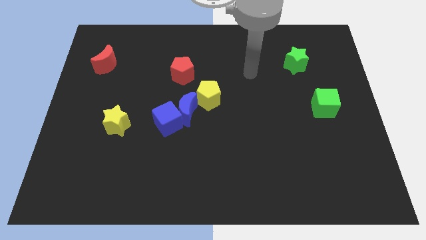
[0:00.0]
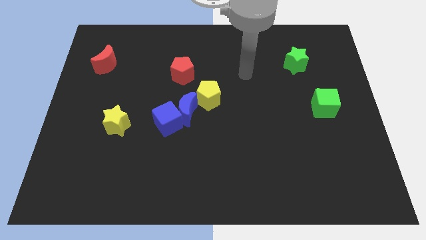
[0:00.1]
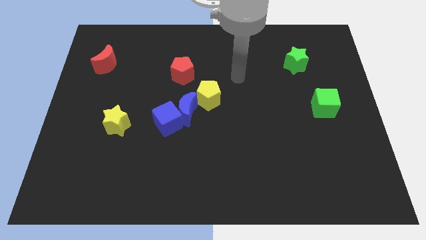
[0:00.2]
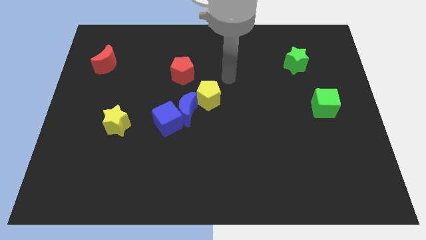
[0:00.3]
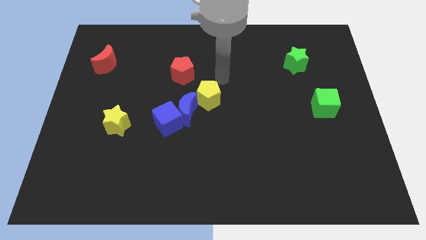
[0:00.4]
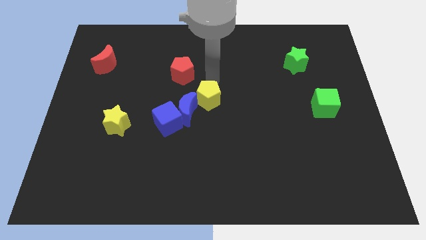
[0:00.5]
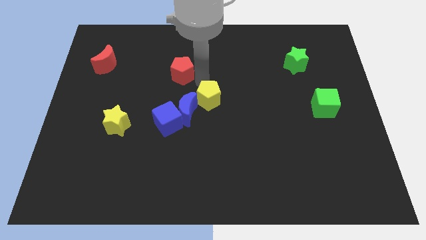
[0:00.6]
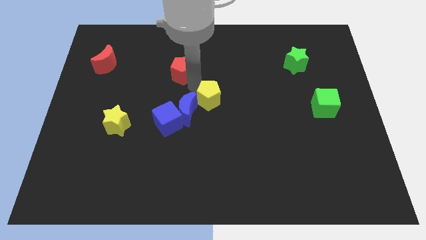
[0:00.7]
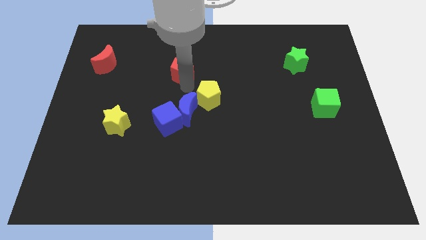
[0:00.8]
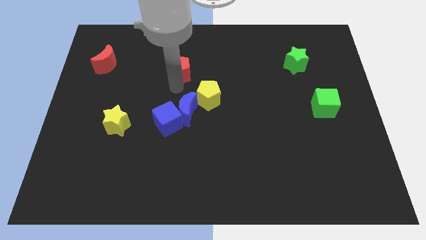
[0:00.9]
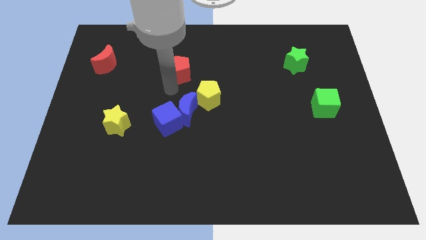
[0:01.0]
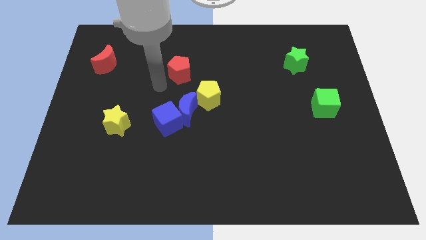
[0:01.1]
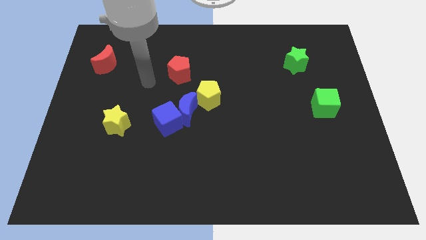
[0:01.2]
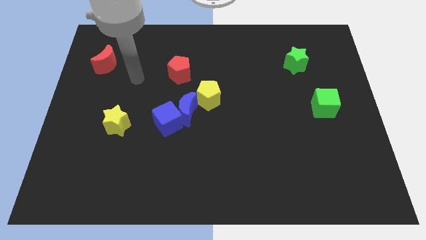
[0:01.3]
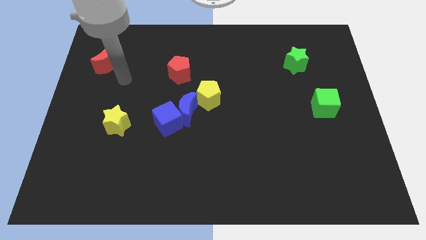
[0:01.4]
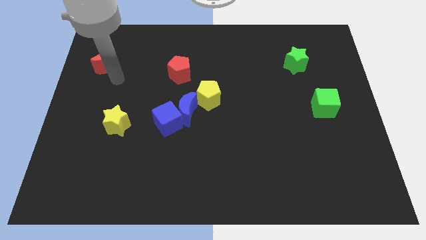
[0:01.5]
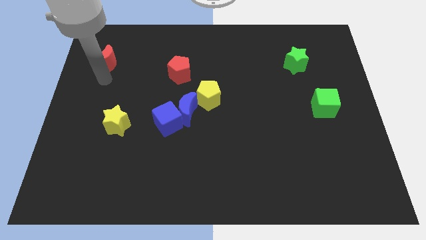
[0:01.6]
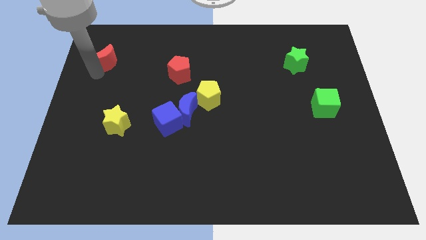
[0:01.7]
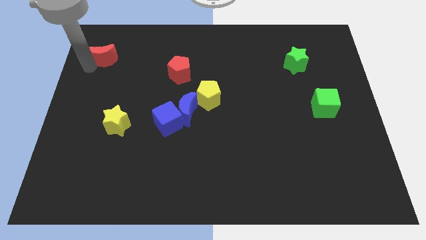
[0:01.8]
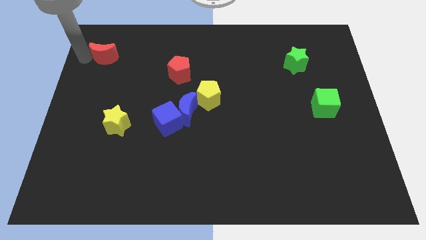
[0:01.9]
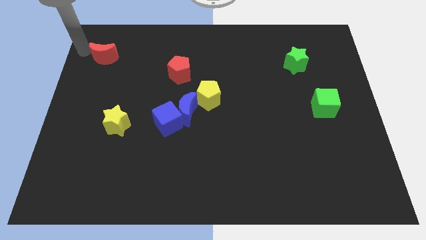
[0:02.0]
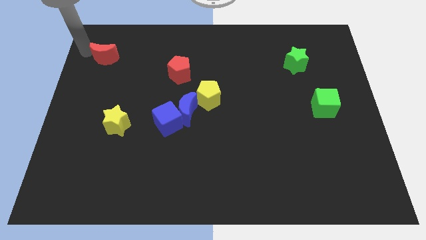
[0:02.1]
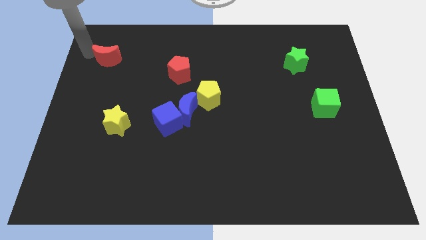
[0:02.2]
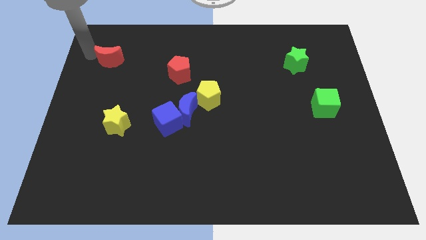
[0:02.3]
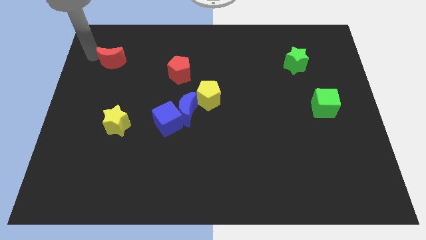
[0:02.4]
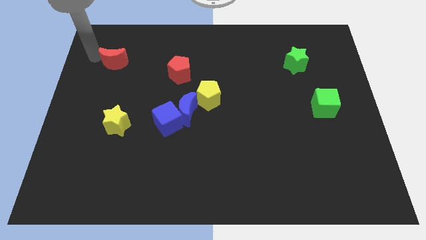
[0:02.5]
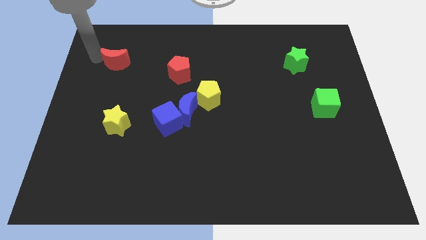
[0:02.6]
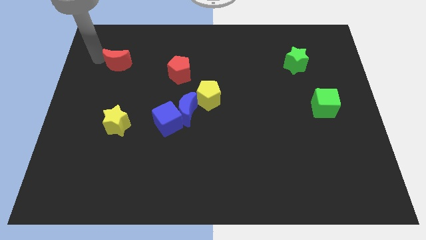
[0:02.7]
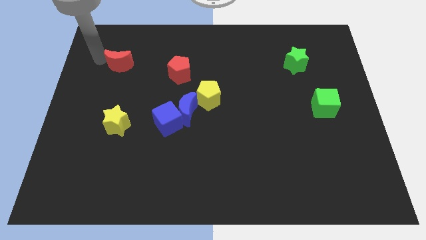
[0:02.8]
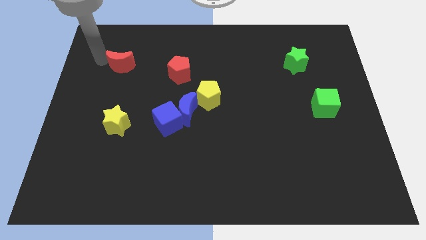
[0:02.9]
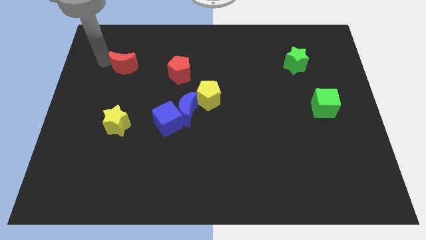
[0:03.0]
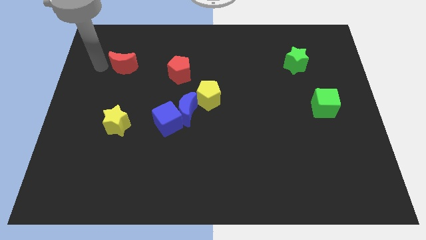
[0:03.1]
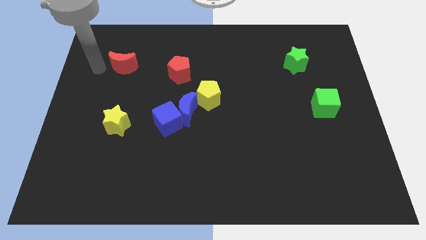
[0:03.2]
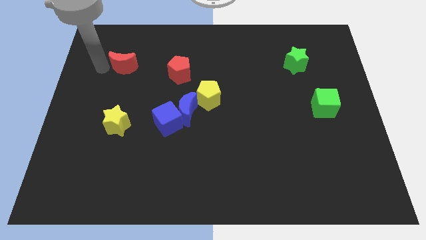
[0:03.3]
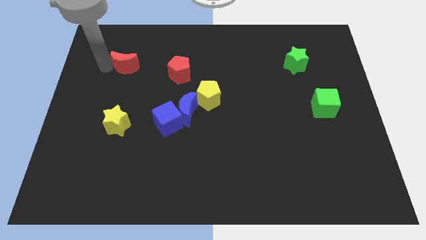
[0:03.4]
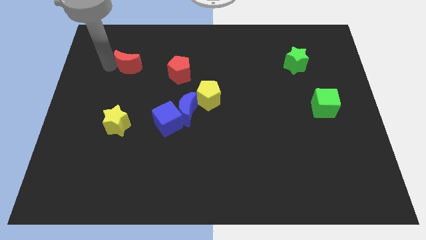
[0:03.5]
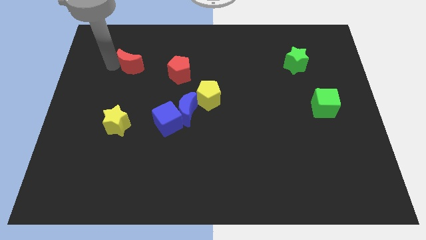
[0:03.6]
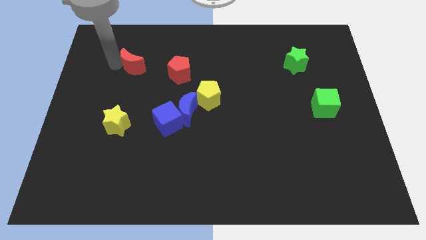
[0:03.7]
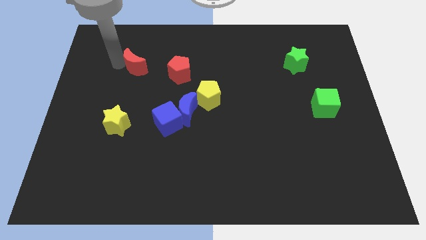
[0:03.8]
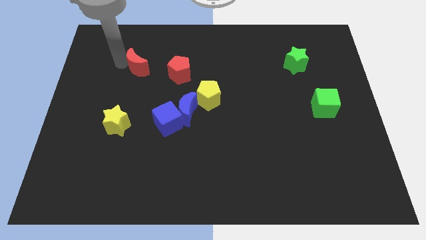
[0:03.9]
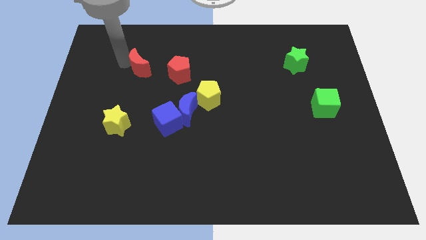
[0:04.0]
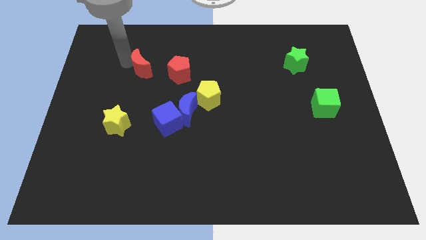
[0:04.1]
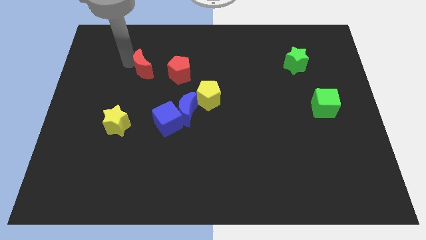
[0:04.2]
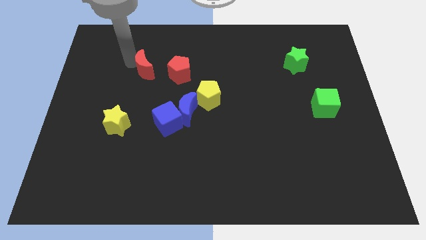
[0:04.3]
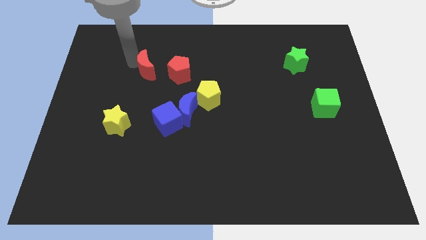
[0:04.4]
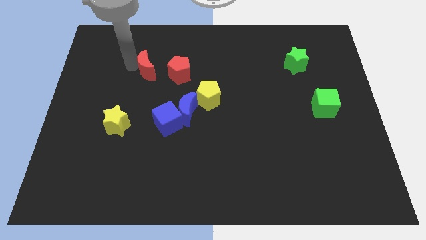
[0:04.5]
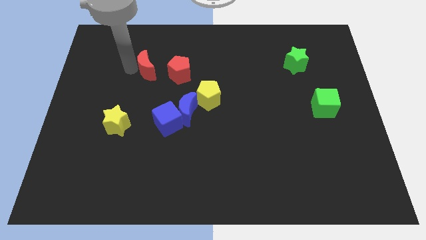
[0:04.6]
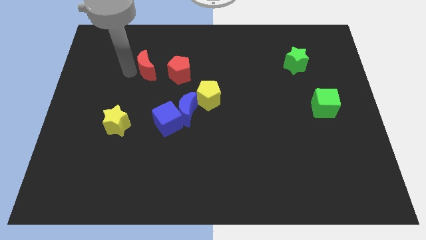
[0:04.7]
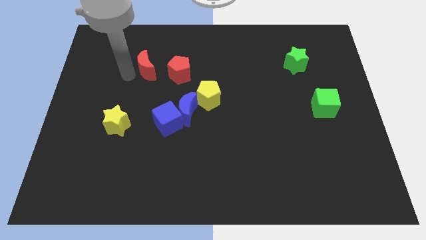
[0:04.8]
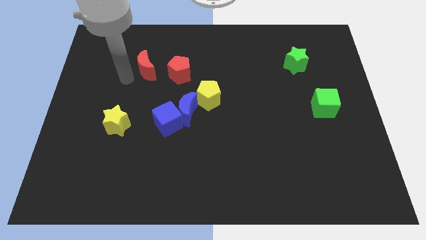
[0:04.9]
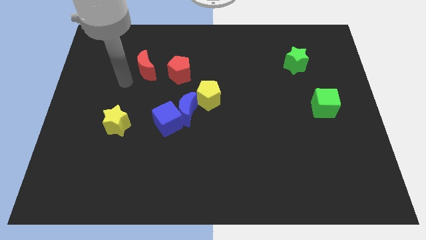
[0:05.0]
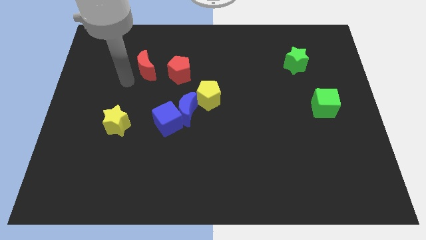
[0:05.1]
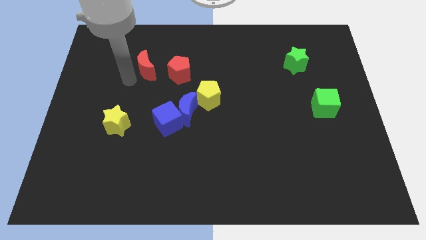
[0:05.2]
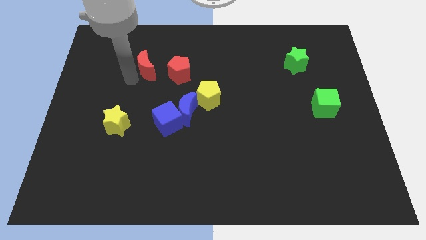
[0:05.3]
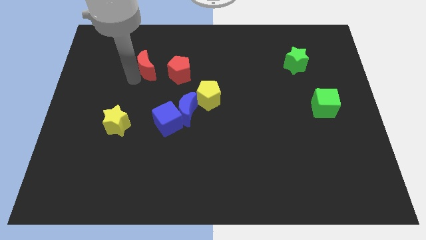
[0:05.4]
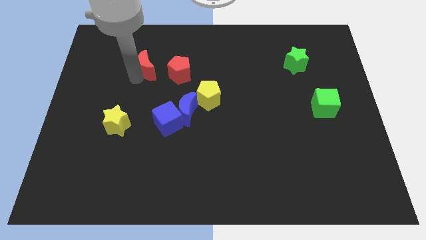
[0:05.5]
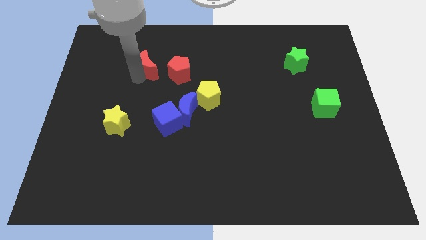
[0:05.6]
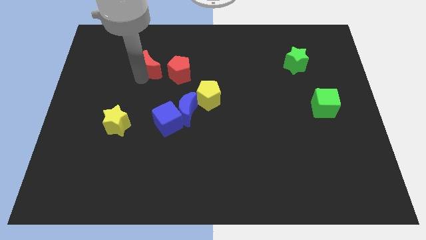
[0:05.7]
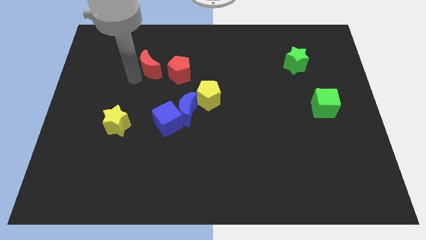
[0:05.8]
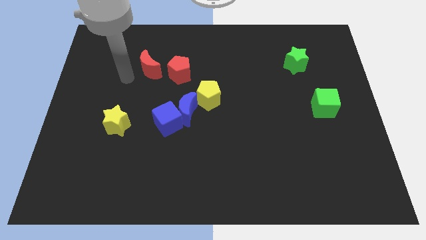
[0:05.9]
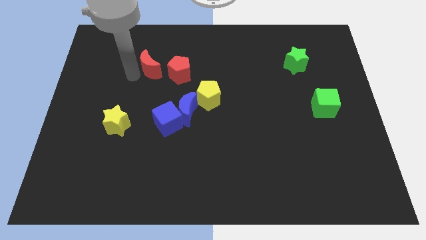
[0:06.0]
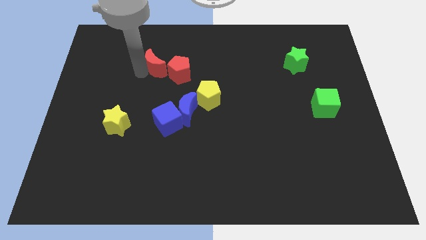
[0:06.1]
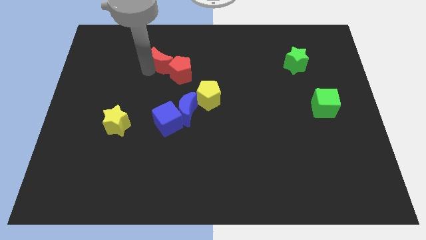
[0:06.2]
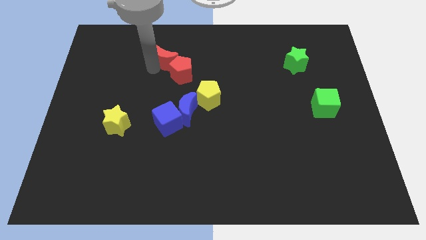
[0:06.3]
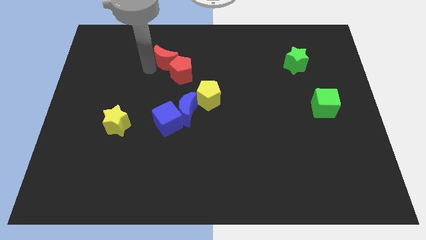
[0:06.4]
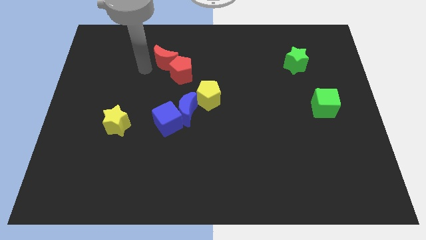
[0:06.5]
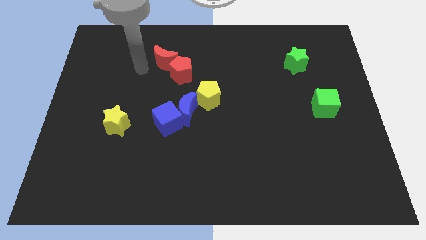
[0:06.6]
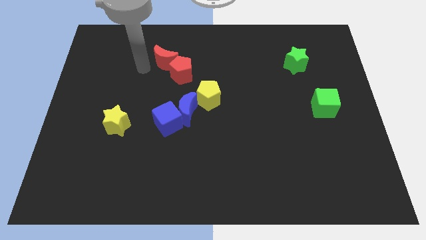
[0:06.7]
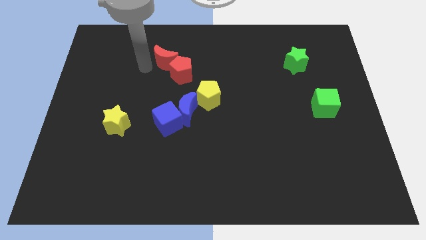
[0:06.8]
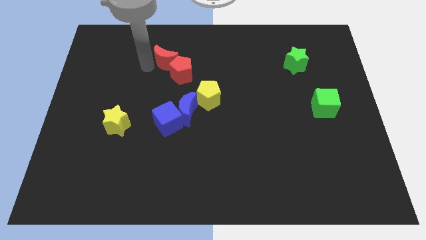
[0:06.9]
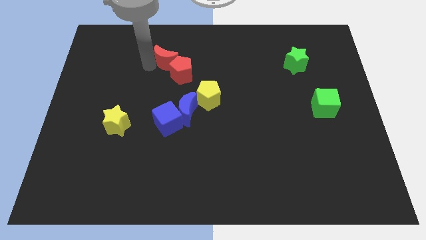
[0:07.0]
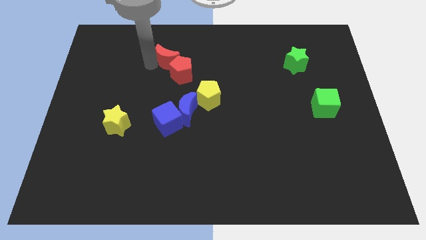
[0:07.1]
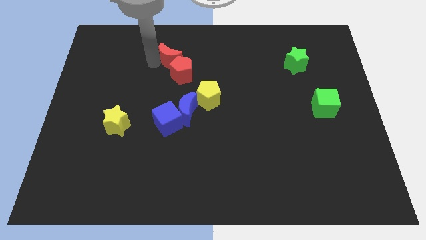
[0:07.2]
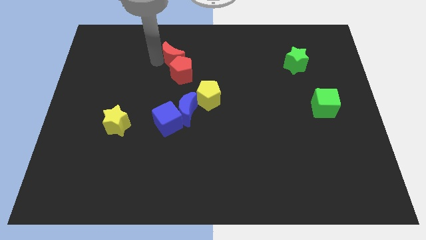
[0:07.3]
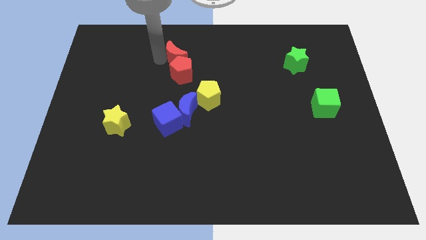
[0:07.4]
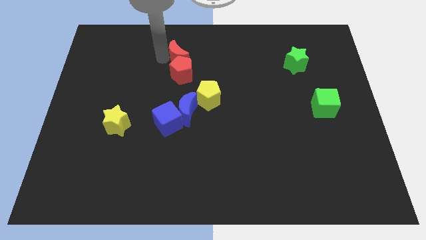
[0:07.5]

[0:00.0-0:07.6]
push the red moon to the top right side of the red pentagon
